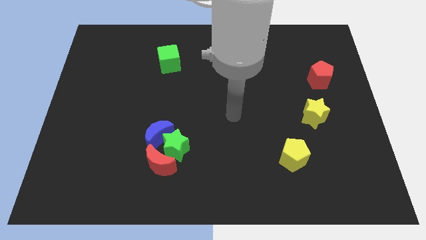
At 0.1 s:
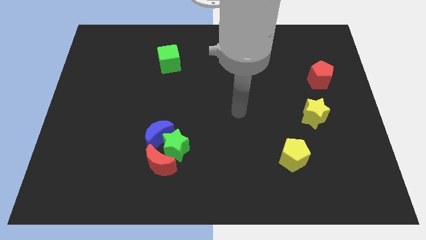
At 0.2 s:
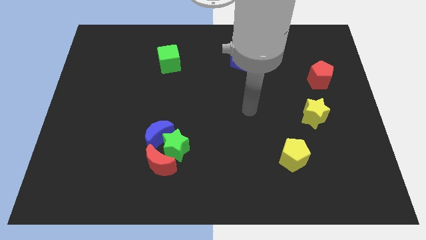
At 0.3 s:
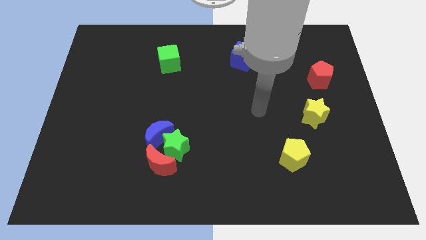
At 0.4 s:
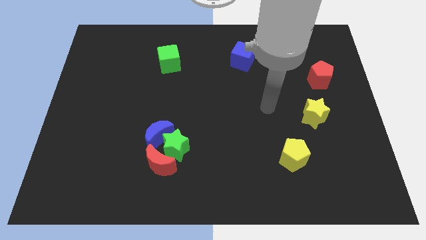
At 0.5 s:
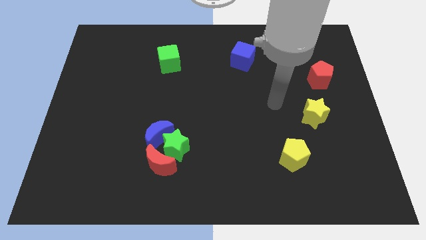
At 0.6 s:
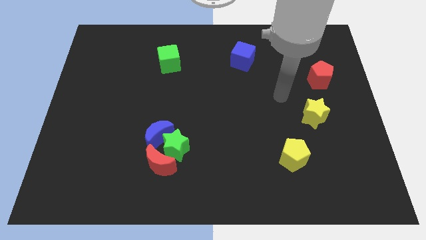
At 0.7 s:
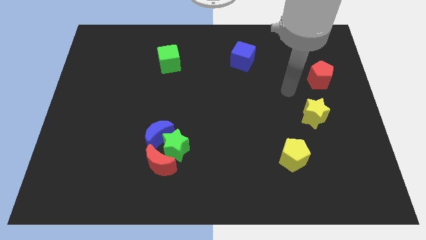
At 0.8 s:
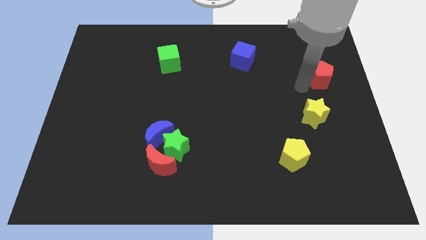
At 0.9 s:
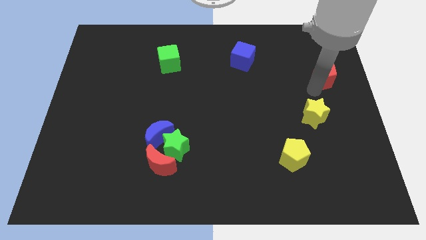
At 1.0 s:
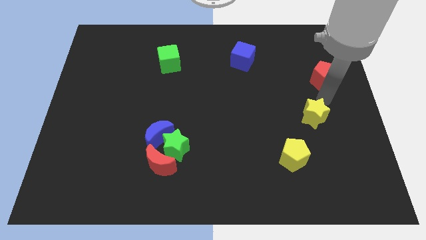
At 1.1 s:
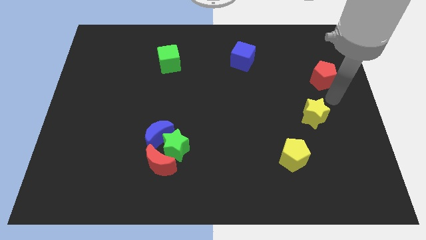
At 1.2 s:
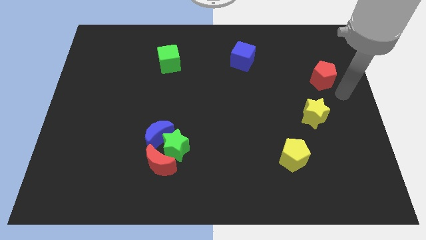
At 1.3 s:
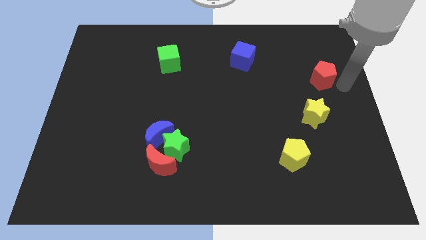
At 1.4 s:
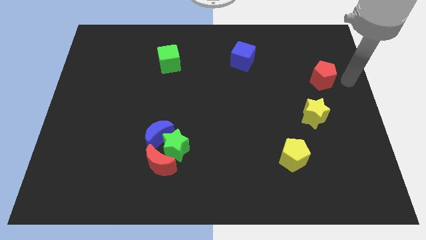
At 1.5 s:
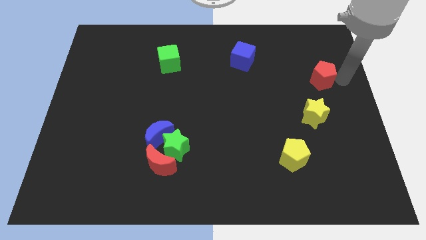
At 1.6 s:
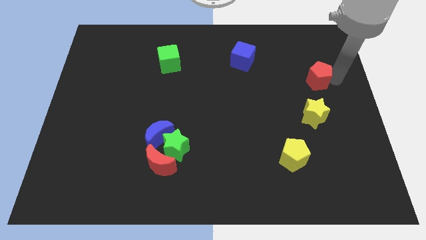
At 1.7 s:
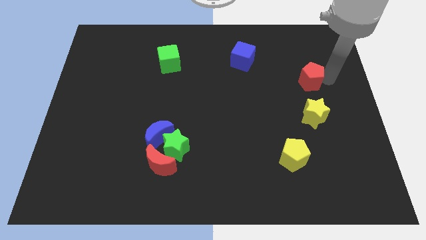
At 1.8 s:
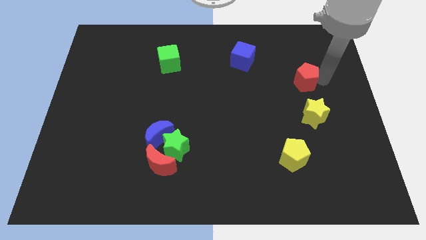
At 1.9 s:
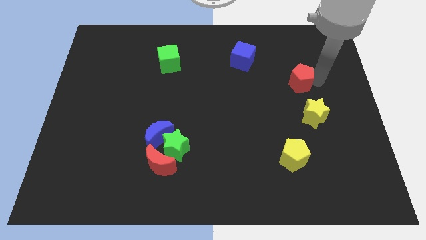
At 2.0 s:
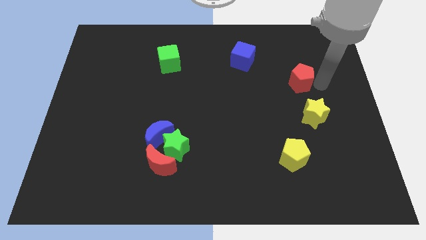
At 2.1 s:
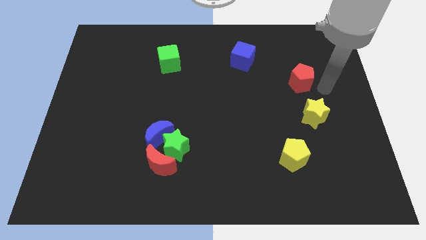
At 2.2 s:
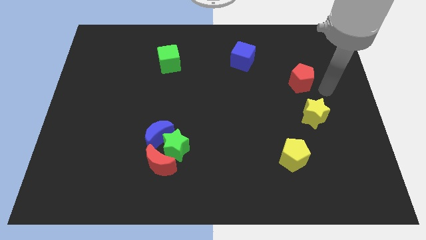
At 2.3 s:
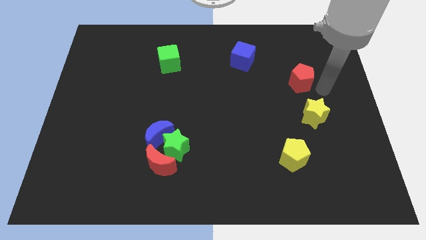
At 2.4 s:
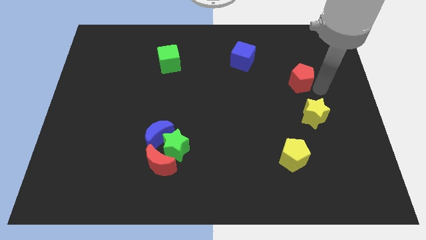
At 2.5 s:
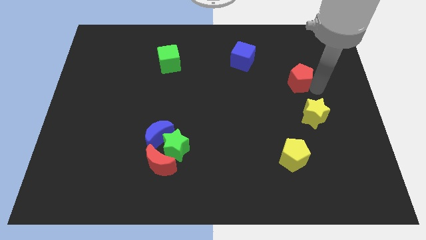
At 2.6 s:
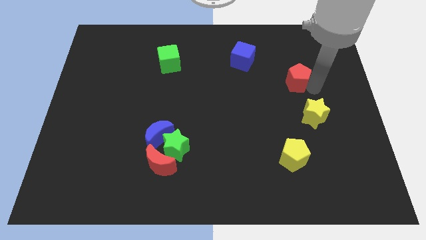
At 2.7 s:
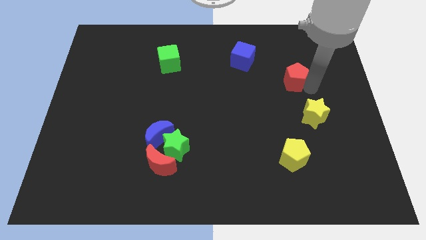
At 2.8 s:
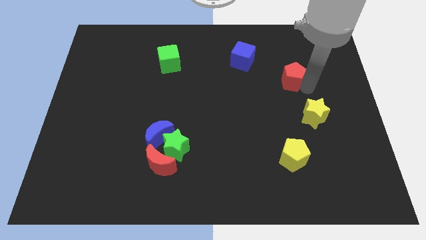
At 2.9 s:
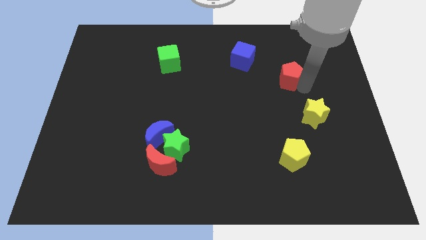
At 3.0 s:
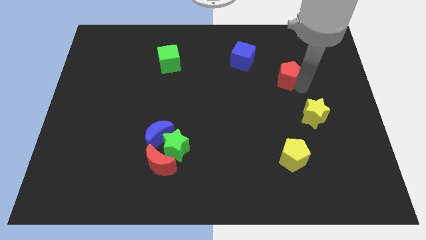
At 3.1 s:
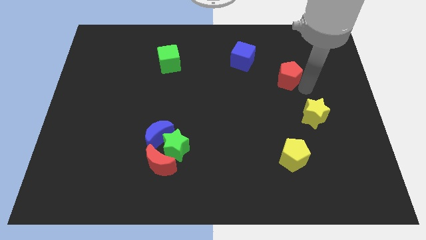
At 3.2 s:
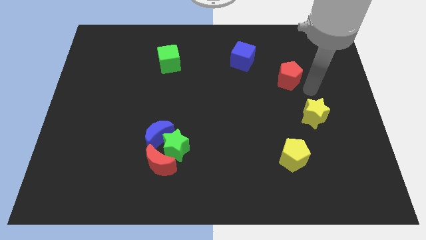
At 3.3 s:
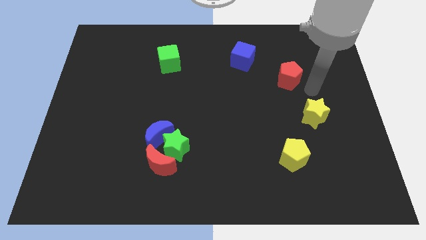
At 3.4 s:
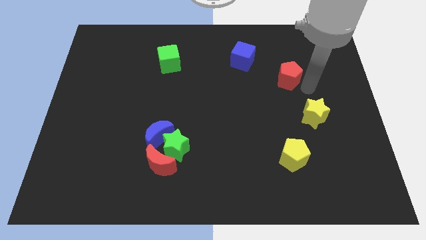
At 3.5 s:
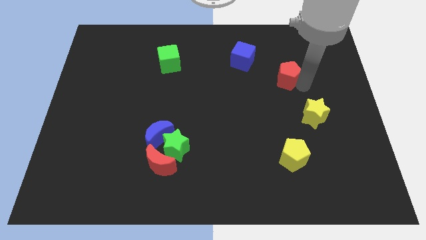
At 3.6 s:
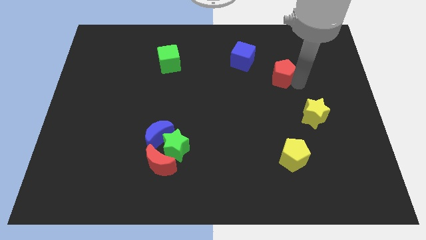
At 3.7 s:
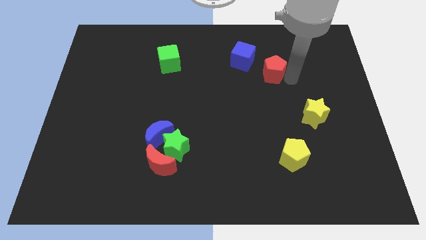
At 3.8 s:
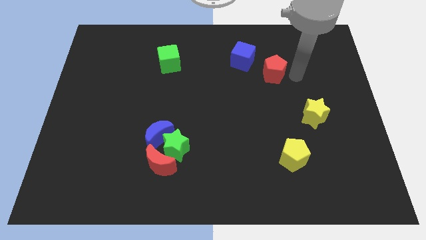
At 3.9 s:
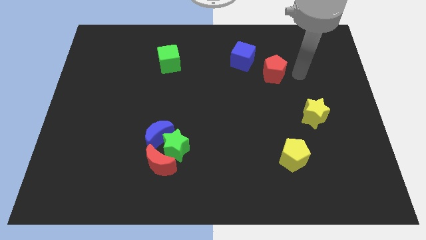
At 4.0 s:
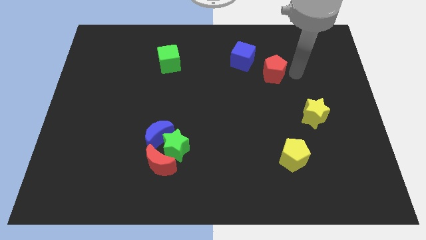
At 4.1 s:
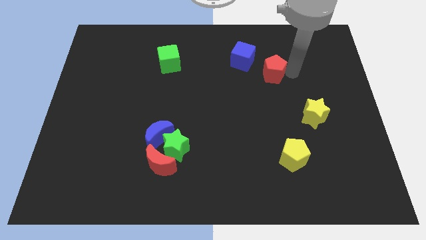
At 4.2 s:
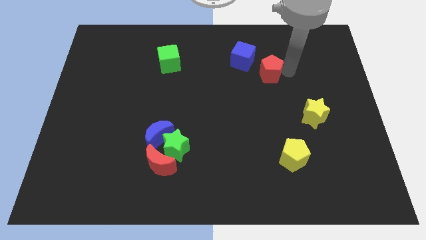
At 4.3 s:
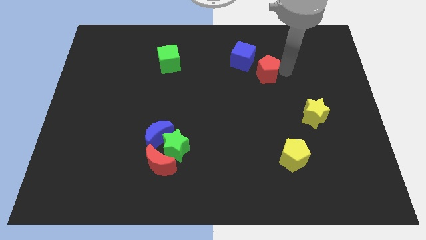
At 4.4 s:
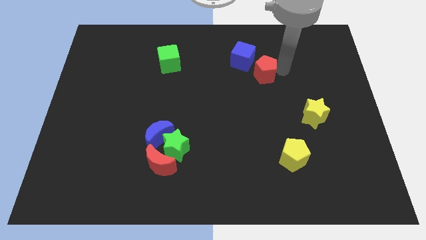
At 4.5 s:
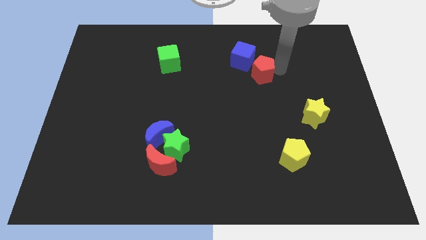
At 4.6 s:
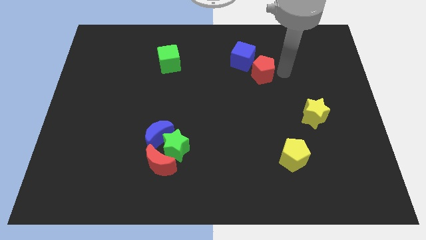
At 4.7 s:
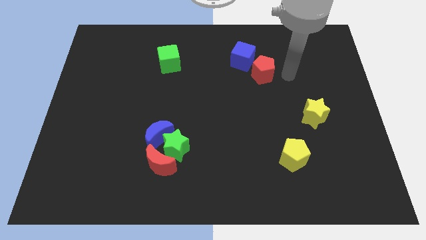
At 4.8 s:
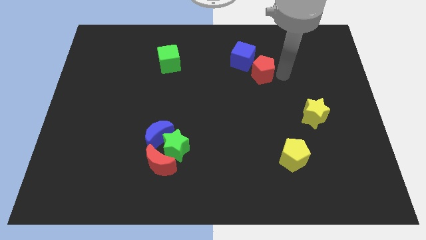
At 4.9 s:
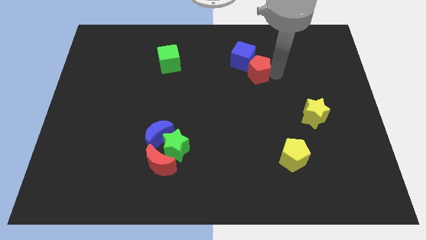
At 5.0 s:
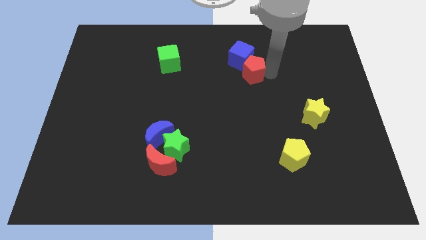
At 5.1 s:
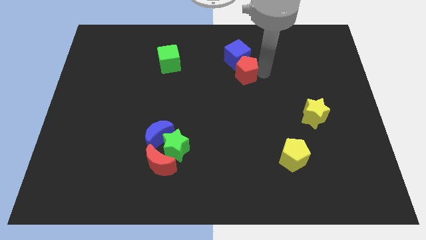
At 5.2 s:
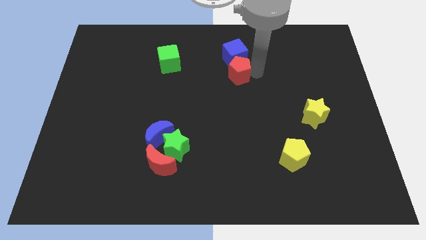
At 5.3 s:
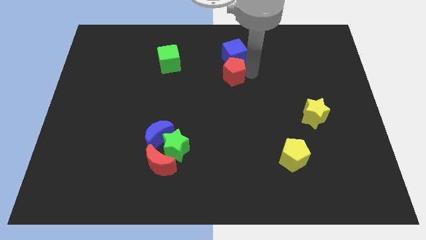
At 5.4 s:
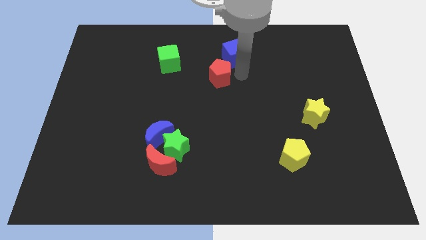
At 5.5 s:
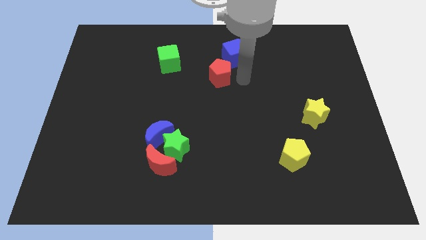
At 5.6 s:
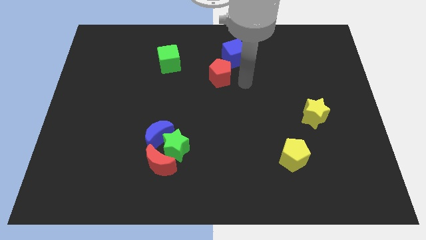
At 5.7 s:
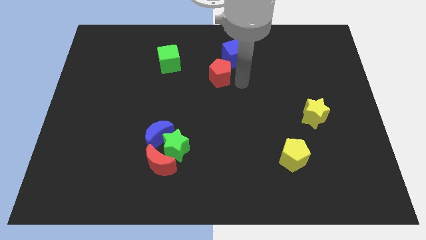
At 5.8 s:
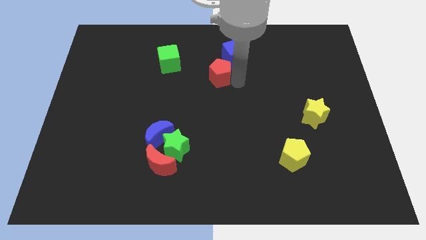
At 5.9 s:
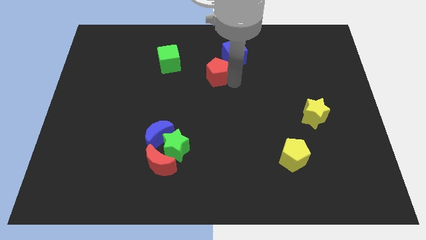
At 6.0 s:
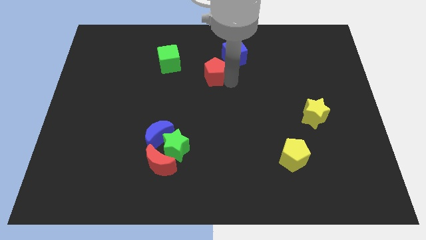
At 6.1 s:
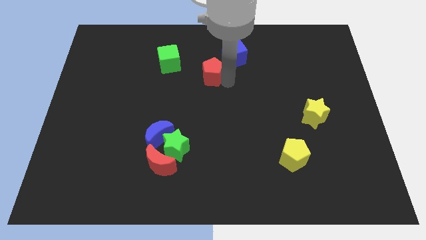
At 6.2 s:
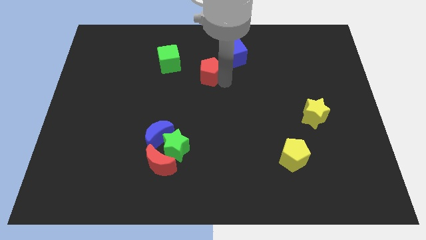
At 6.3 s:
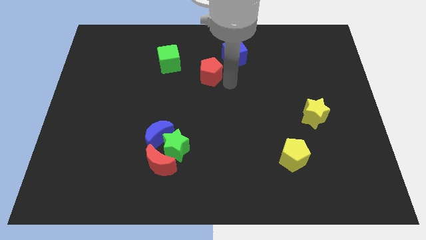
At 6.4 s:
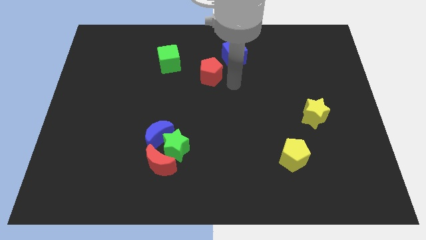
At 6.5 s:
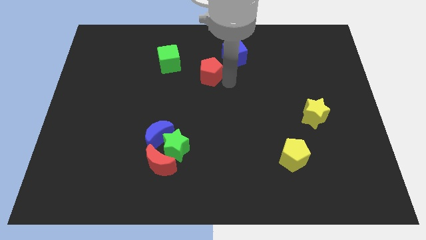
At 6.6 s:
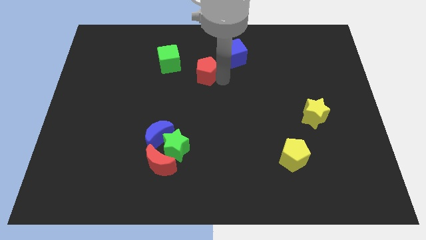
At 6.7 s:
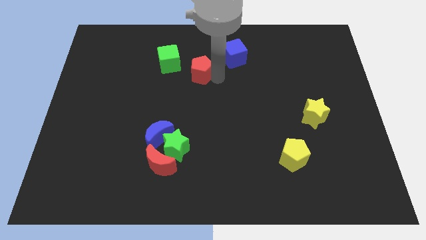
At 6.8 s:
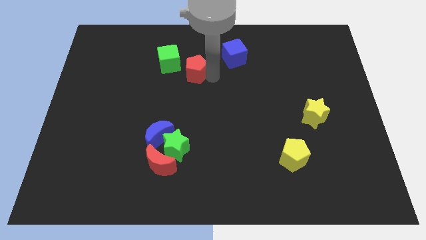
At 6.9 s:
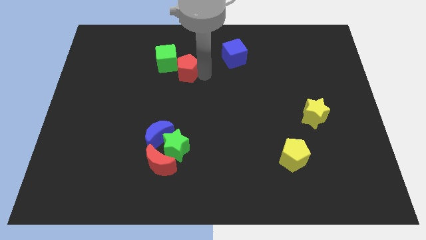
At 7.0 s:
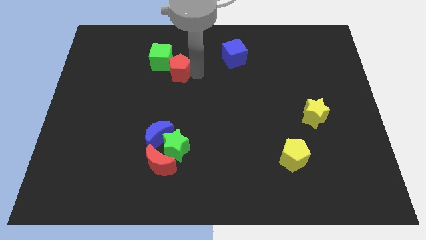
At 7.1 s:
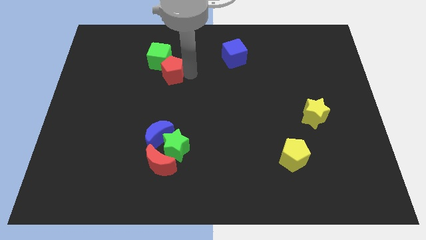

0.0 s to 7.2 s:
put the red pentagon to the green cube

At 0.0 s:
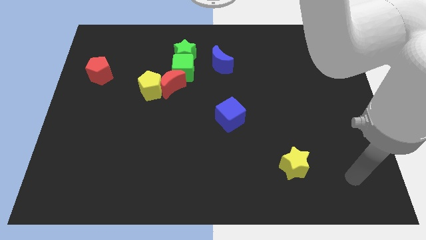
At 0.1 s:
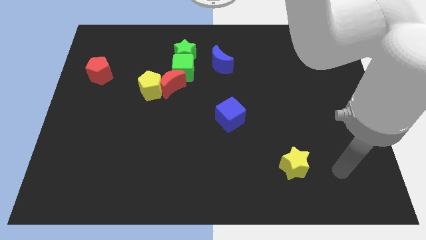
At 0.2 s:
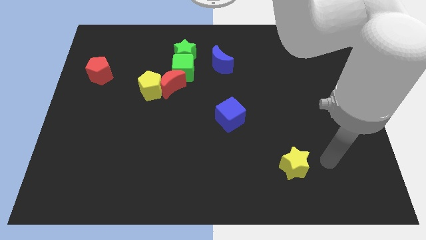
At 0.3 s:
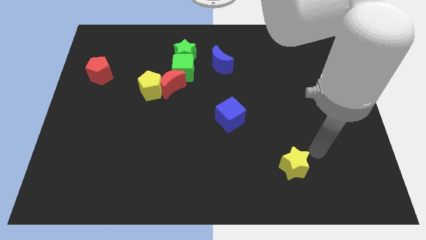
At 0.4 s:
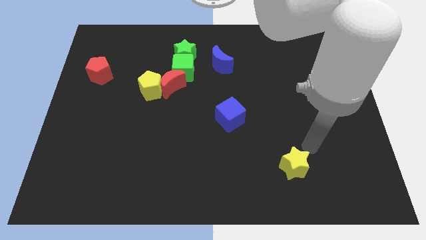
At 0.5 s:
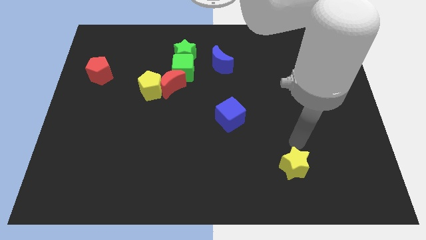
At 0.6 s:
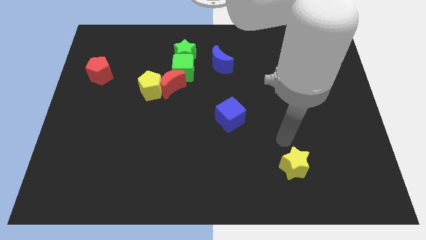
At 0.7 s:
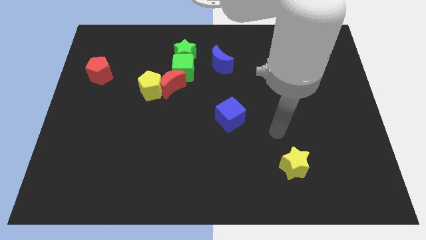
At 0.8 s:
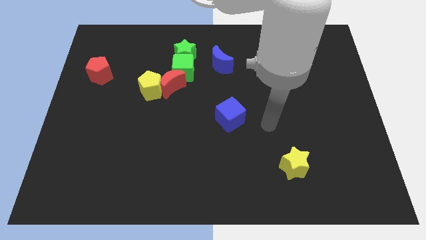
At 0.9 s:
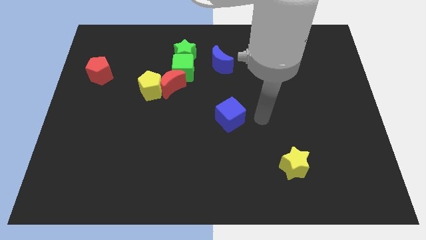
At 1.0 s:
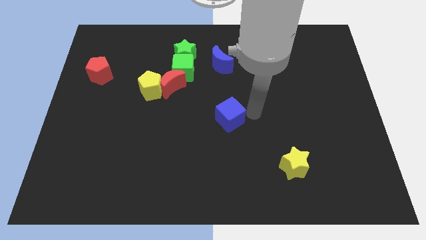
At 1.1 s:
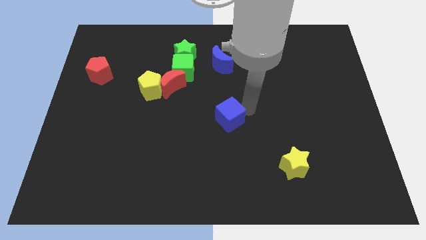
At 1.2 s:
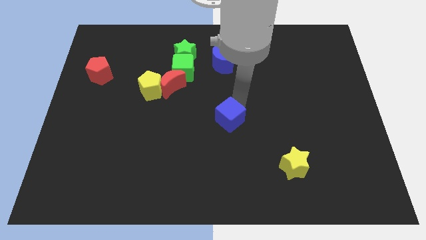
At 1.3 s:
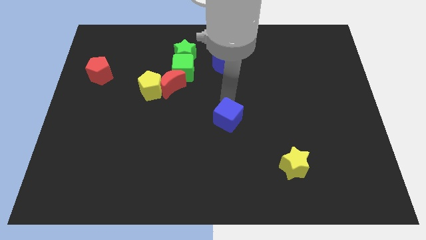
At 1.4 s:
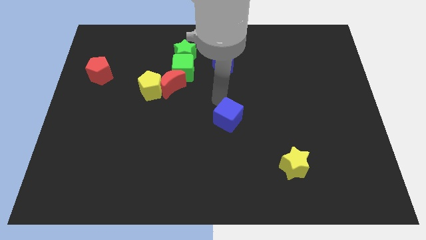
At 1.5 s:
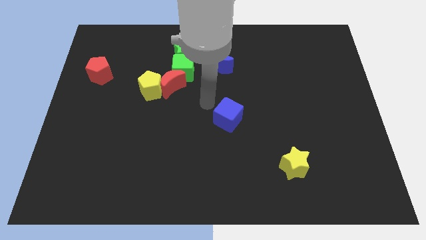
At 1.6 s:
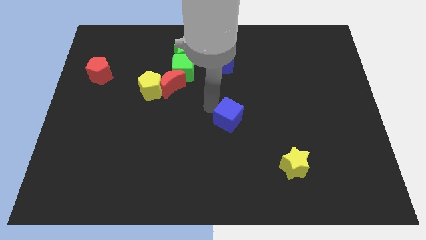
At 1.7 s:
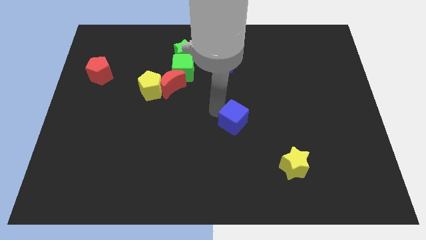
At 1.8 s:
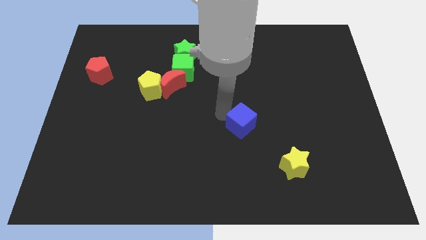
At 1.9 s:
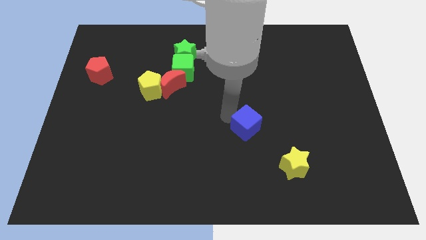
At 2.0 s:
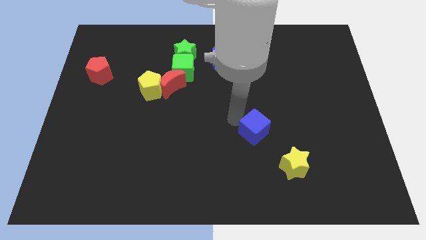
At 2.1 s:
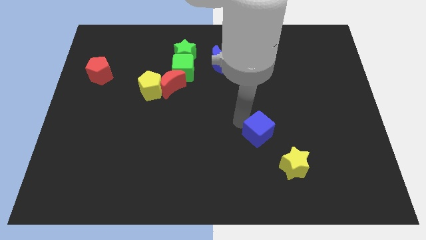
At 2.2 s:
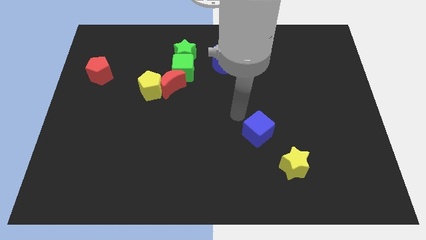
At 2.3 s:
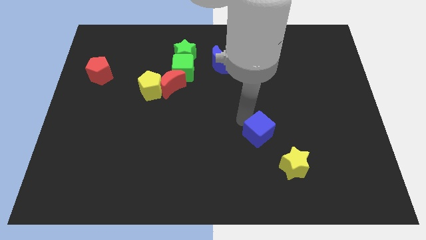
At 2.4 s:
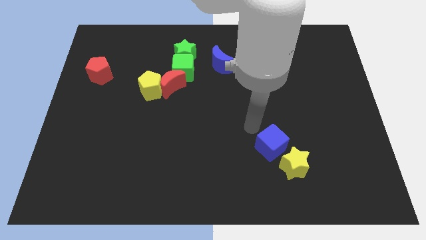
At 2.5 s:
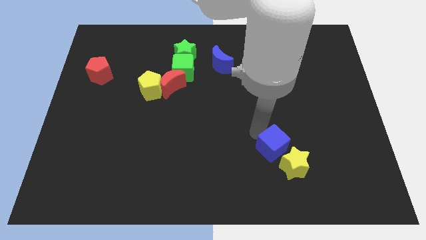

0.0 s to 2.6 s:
push the blue cube next to the yellow star
